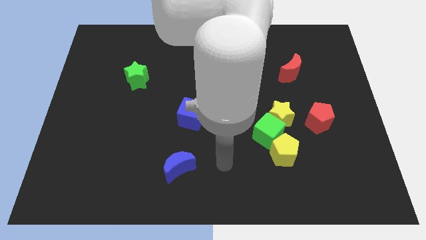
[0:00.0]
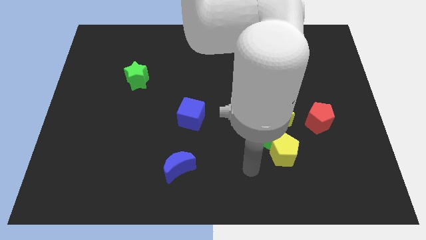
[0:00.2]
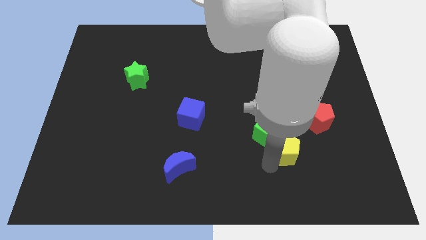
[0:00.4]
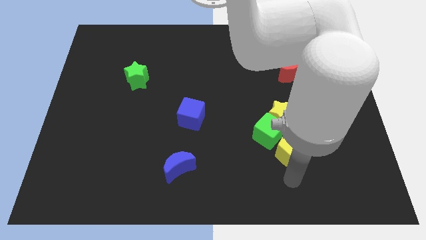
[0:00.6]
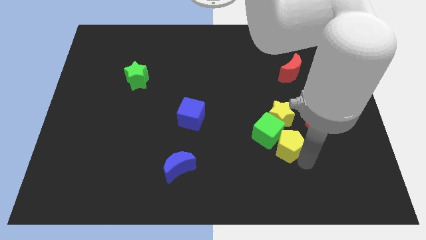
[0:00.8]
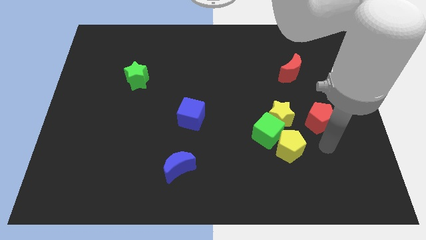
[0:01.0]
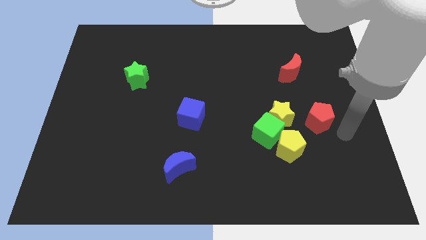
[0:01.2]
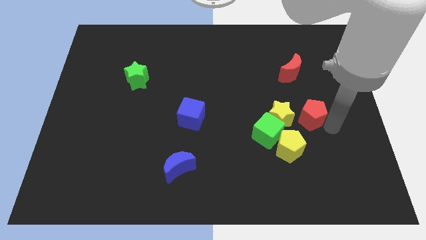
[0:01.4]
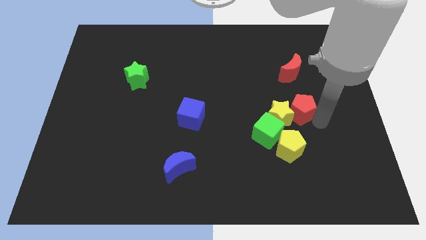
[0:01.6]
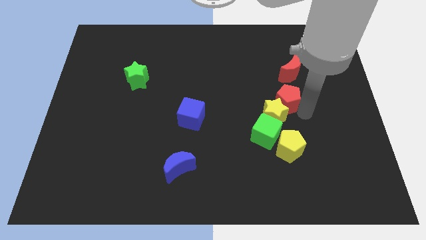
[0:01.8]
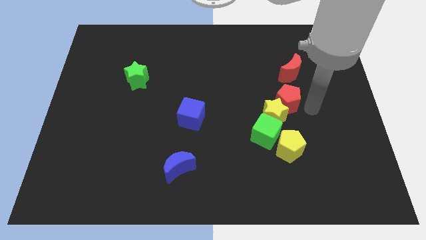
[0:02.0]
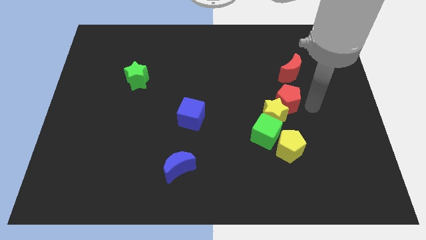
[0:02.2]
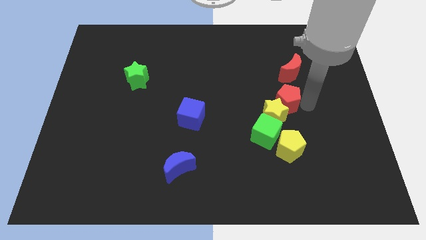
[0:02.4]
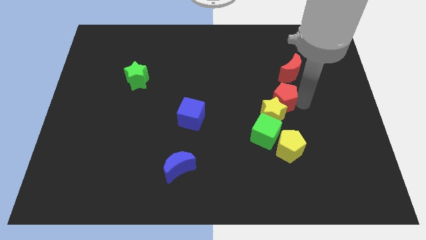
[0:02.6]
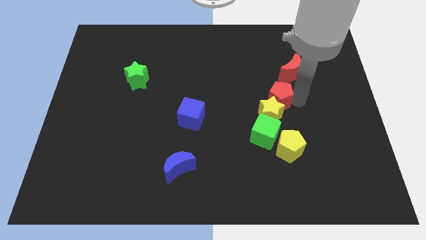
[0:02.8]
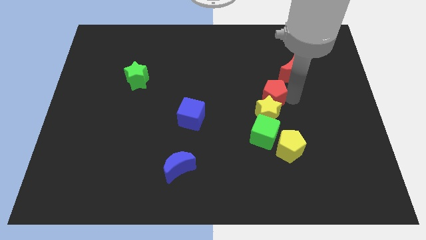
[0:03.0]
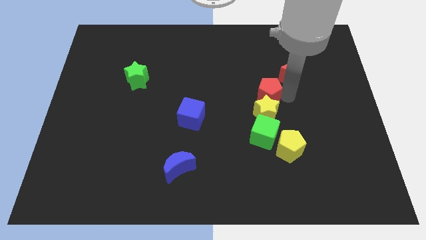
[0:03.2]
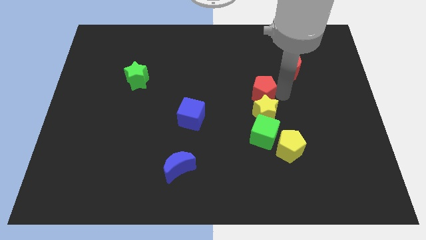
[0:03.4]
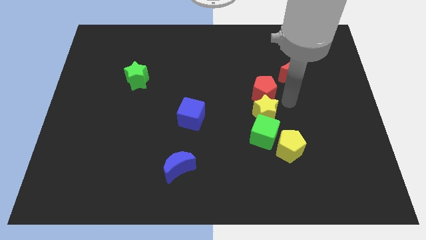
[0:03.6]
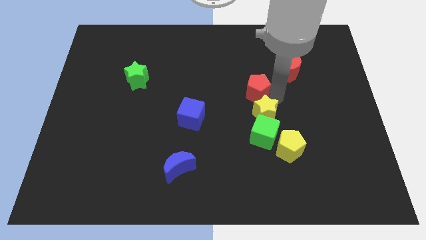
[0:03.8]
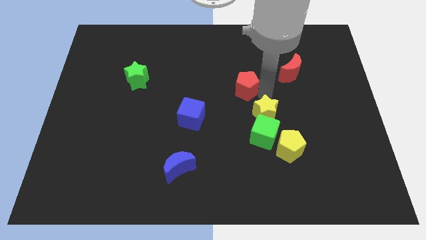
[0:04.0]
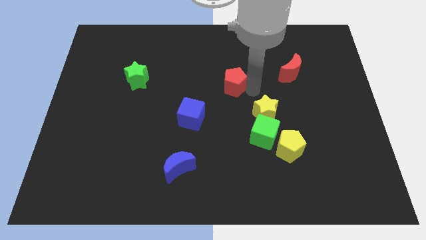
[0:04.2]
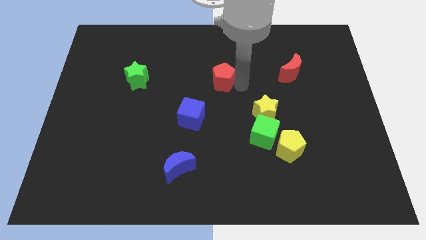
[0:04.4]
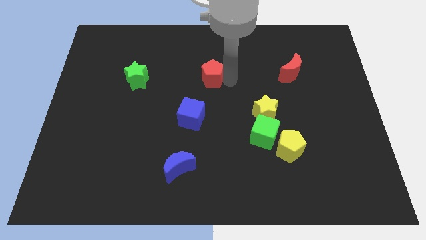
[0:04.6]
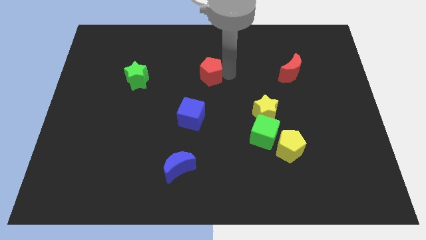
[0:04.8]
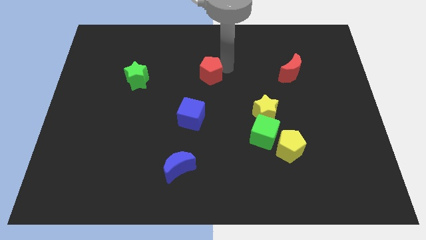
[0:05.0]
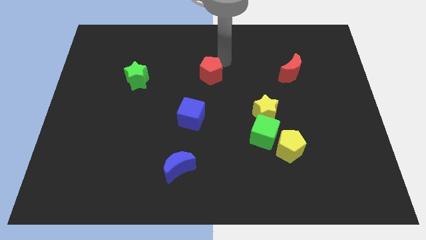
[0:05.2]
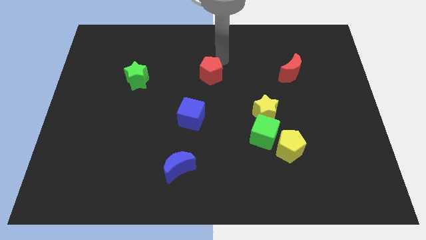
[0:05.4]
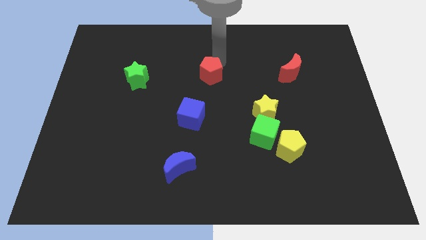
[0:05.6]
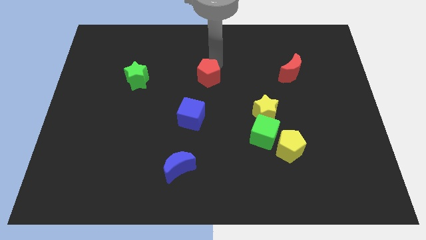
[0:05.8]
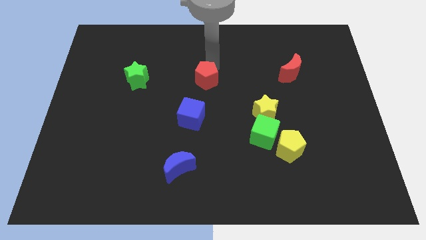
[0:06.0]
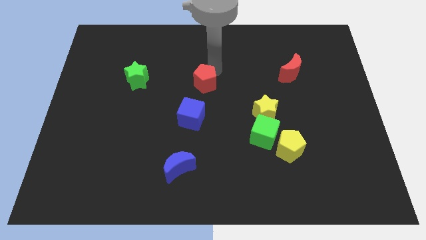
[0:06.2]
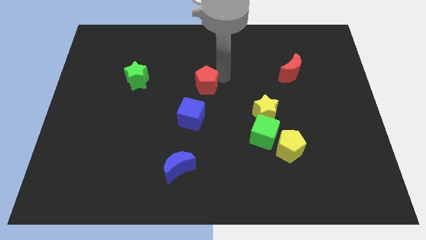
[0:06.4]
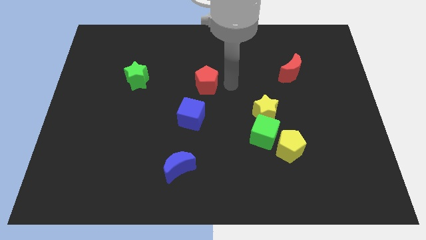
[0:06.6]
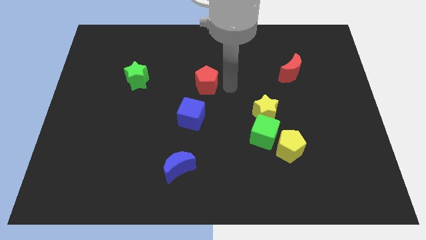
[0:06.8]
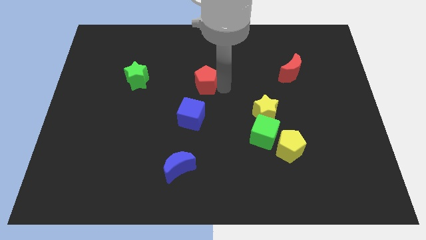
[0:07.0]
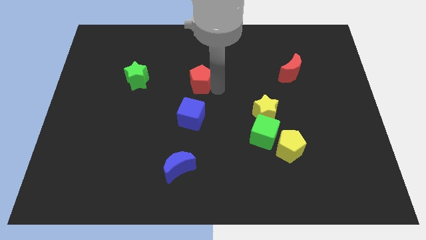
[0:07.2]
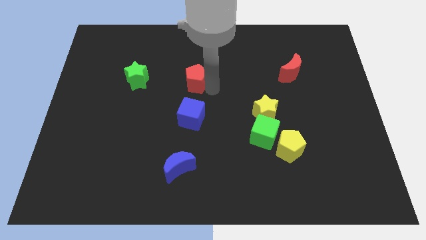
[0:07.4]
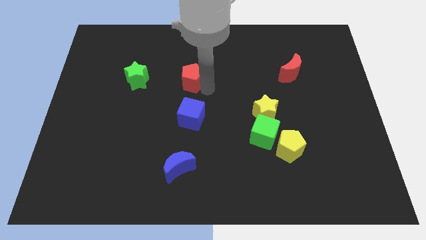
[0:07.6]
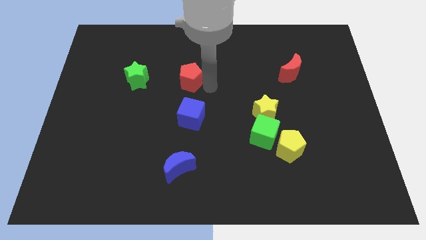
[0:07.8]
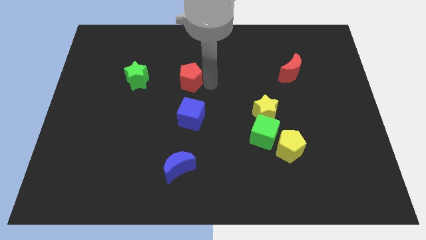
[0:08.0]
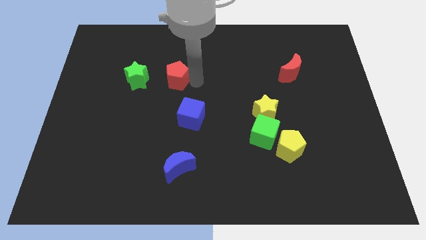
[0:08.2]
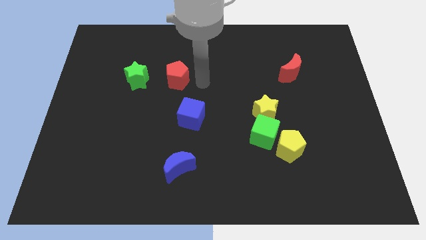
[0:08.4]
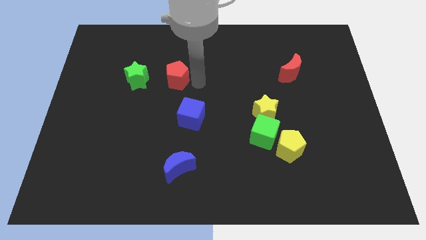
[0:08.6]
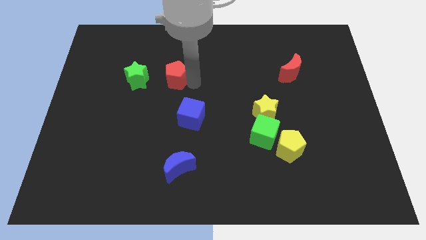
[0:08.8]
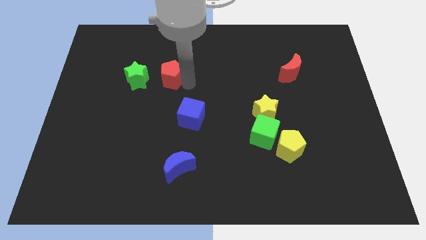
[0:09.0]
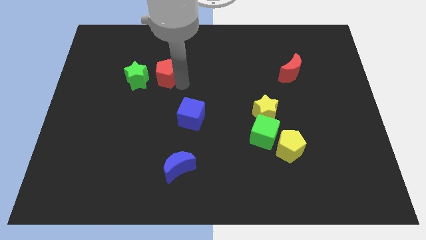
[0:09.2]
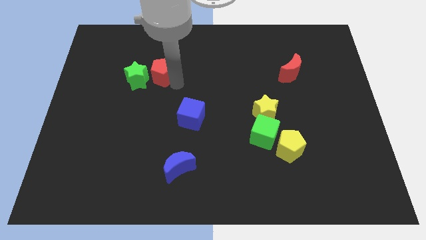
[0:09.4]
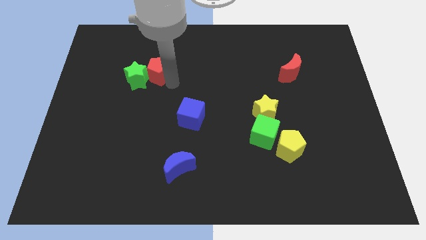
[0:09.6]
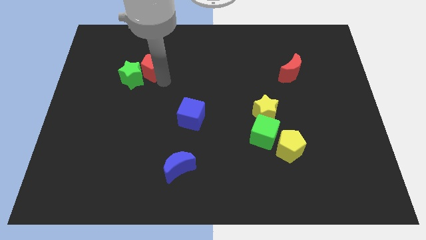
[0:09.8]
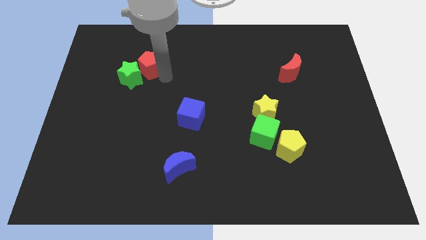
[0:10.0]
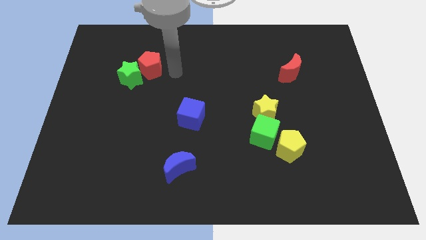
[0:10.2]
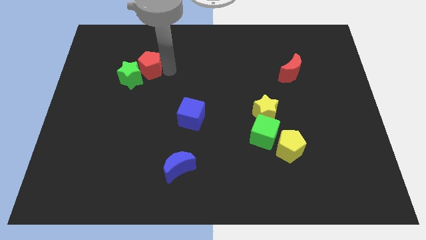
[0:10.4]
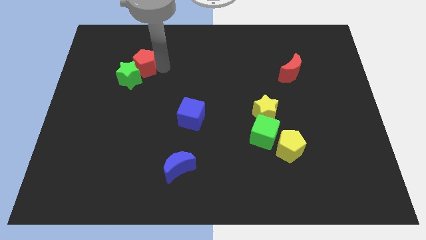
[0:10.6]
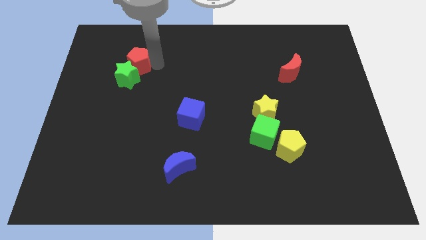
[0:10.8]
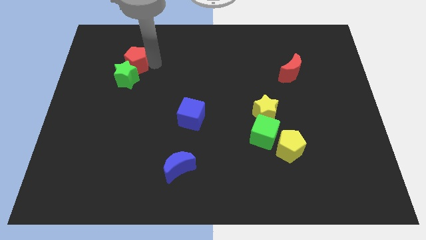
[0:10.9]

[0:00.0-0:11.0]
slide the red pentagon diagonally up and to the left of the green star

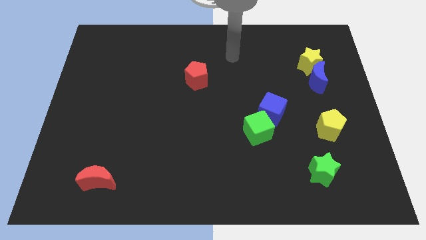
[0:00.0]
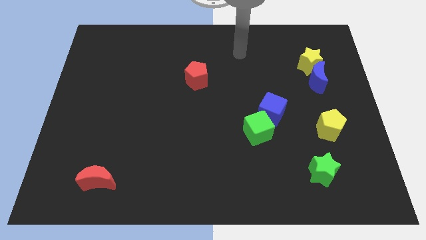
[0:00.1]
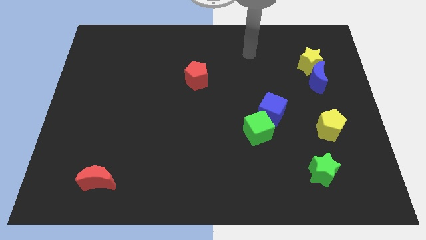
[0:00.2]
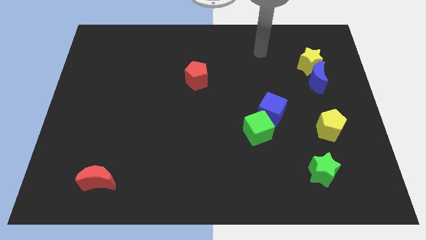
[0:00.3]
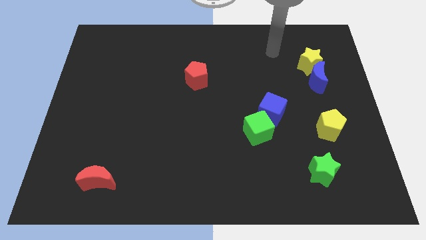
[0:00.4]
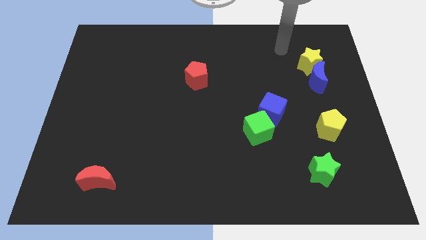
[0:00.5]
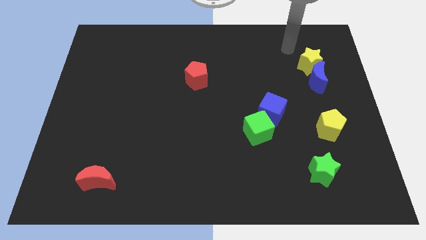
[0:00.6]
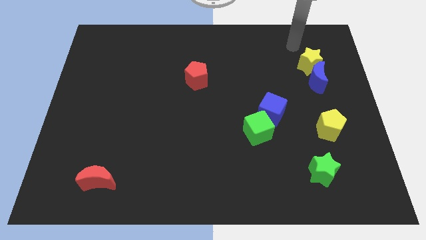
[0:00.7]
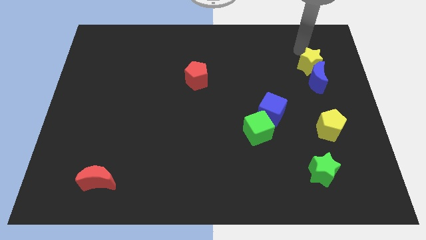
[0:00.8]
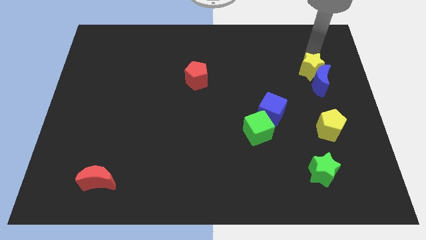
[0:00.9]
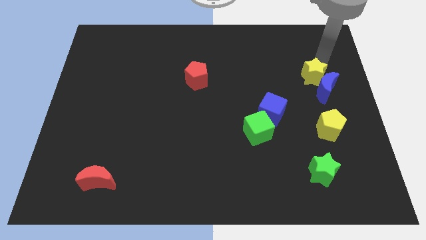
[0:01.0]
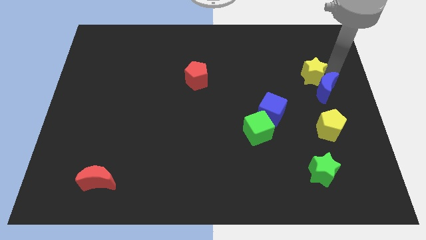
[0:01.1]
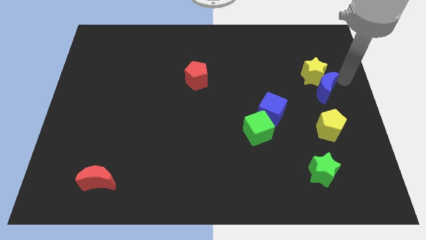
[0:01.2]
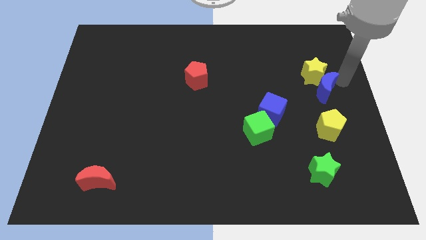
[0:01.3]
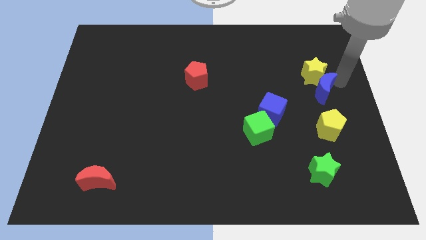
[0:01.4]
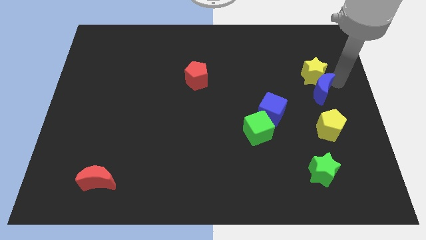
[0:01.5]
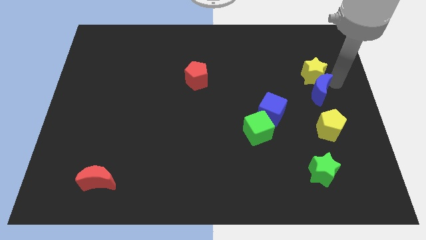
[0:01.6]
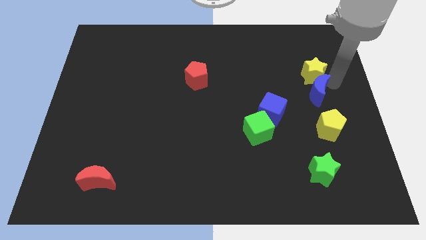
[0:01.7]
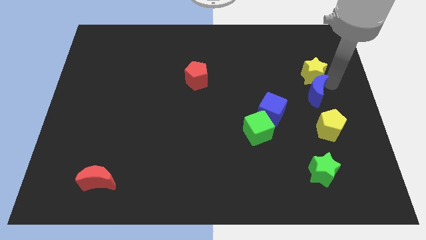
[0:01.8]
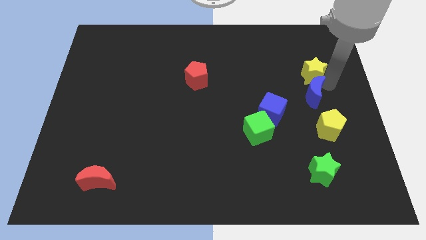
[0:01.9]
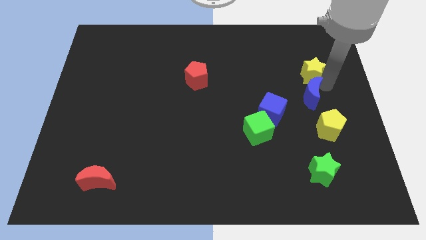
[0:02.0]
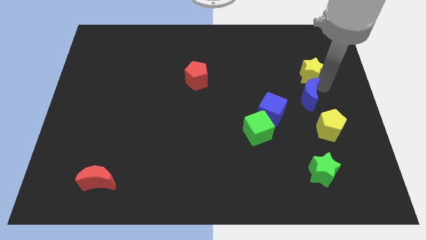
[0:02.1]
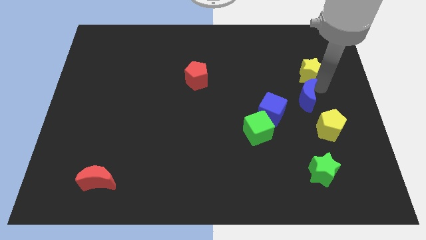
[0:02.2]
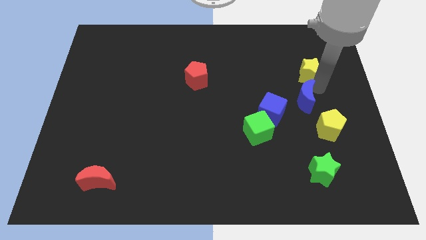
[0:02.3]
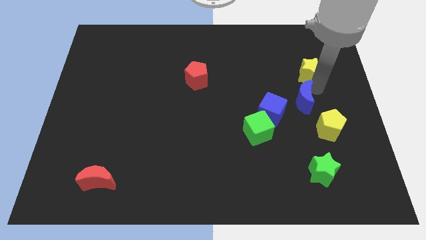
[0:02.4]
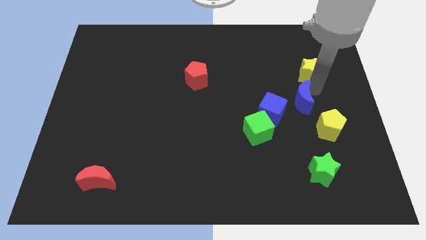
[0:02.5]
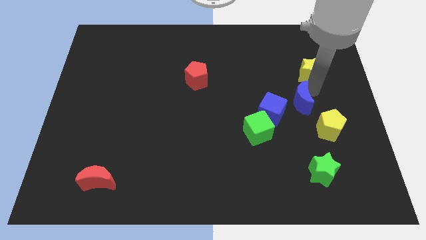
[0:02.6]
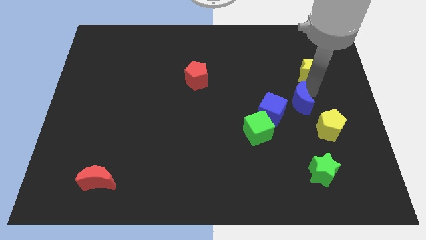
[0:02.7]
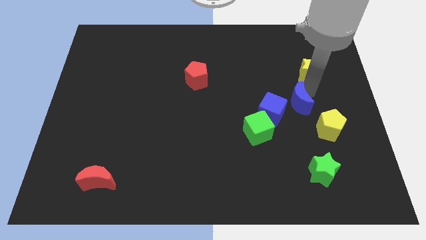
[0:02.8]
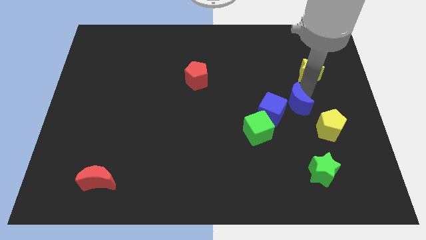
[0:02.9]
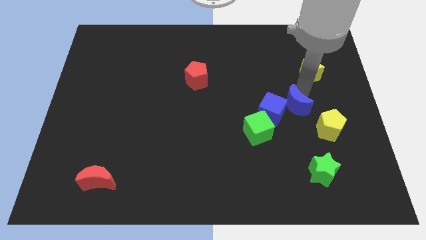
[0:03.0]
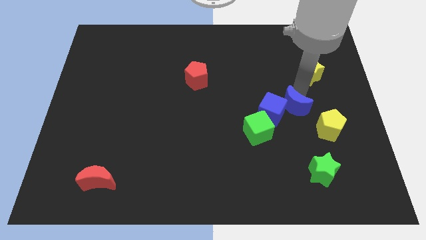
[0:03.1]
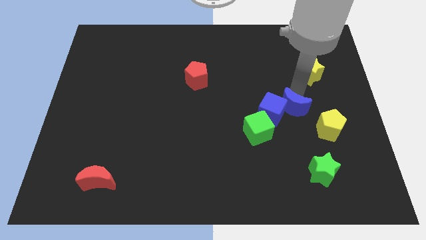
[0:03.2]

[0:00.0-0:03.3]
slide the blue moon to the bottom right side of the blue cube
